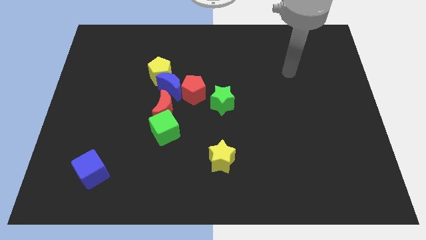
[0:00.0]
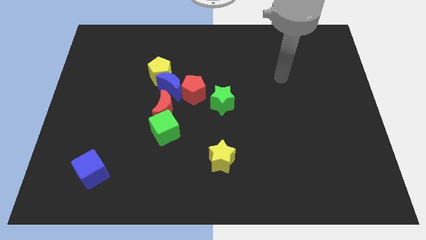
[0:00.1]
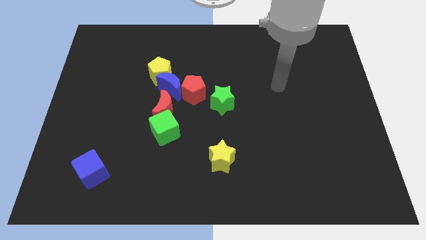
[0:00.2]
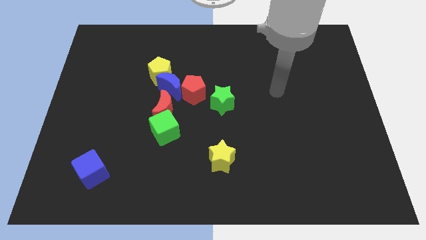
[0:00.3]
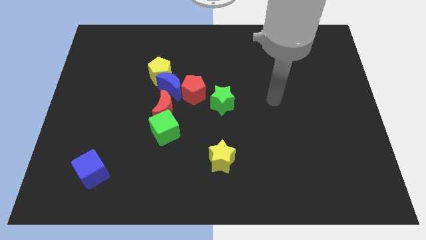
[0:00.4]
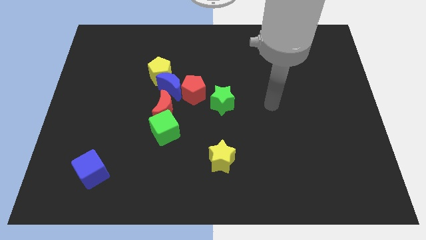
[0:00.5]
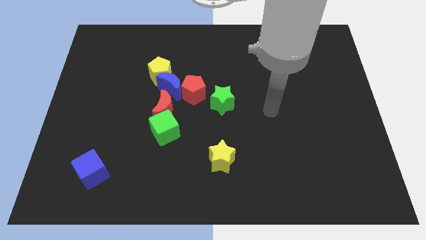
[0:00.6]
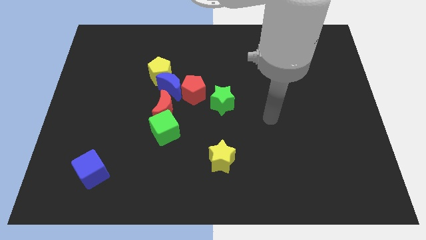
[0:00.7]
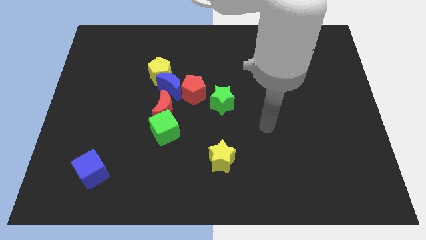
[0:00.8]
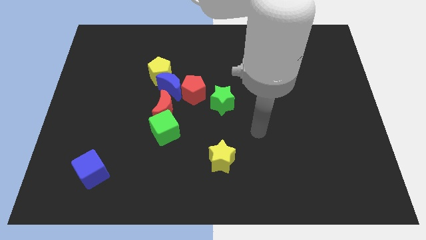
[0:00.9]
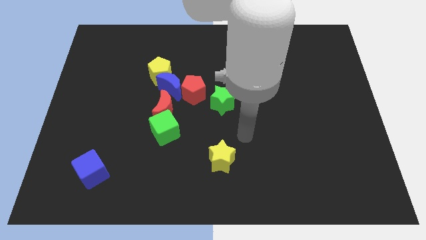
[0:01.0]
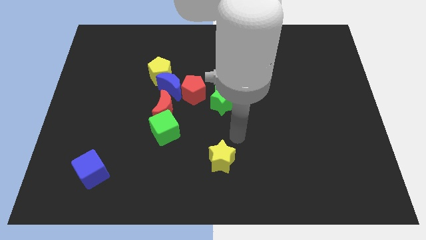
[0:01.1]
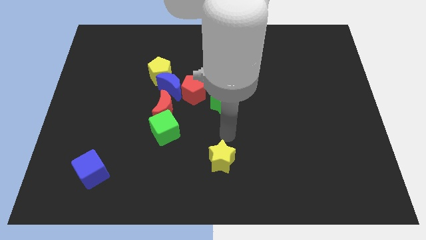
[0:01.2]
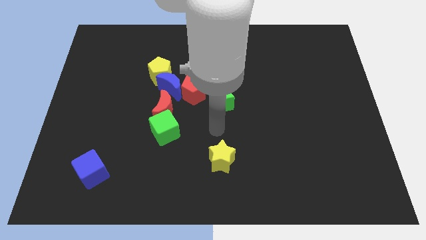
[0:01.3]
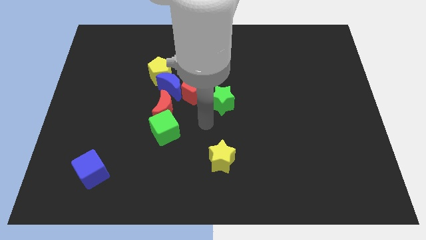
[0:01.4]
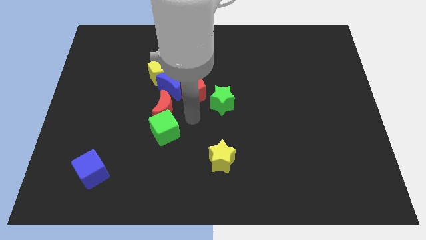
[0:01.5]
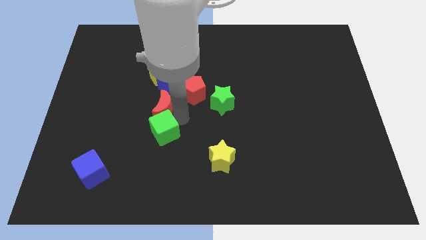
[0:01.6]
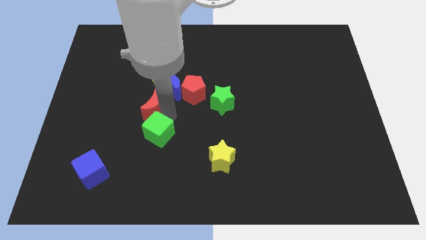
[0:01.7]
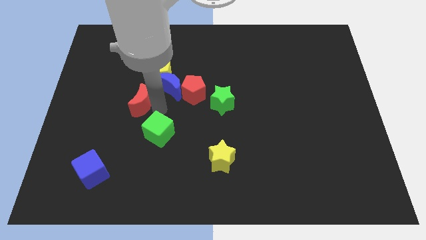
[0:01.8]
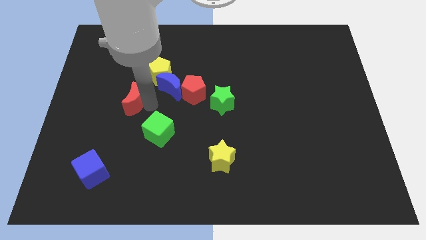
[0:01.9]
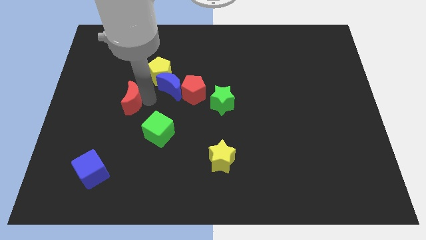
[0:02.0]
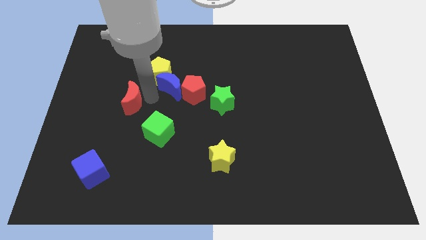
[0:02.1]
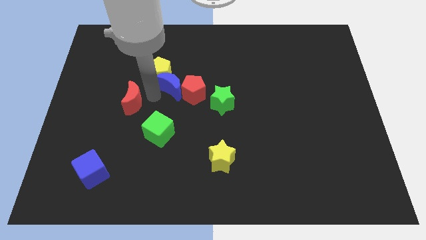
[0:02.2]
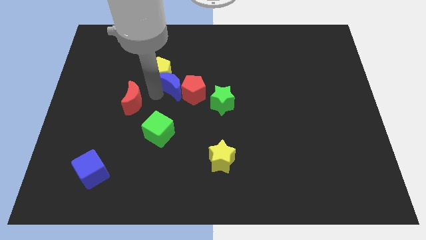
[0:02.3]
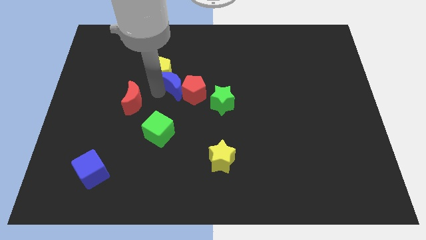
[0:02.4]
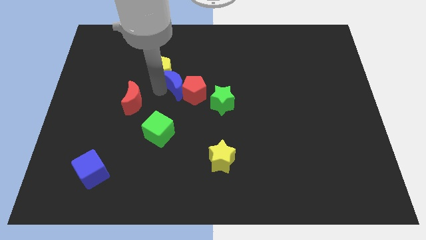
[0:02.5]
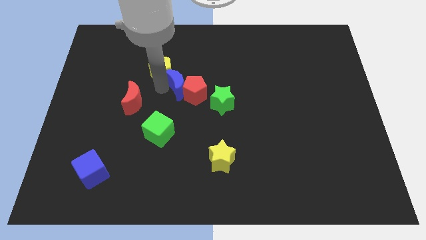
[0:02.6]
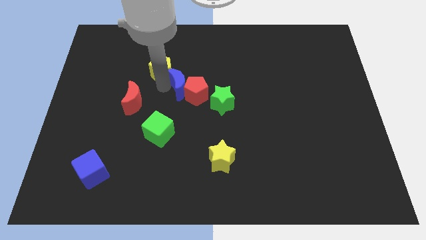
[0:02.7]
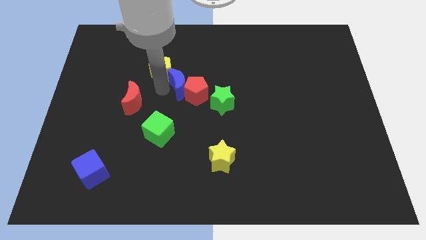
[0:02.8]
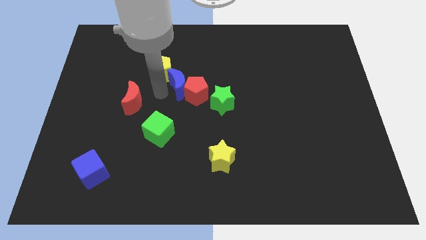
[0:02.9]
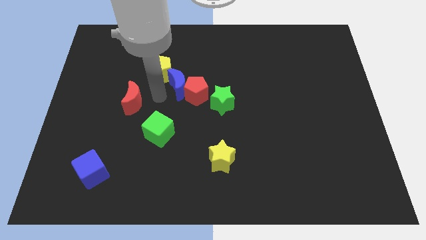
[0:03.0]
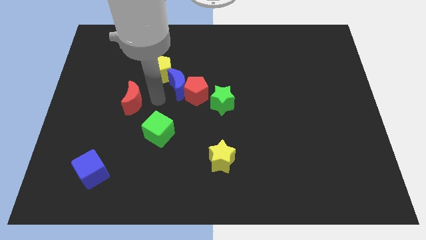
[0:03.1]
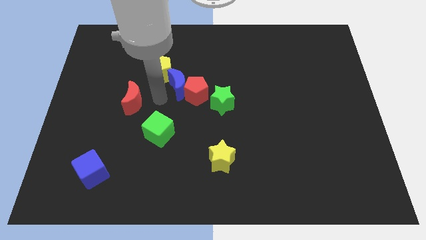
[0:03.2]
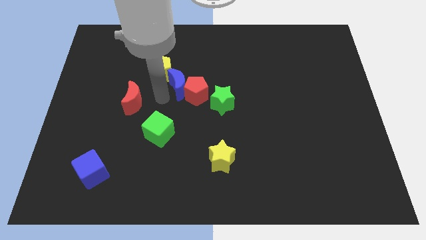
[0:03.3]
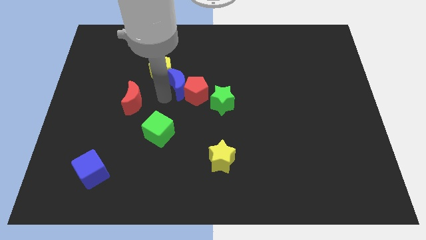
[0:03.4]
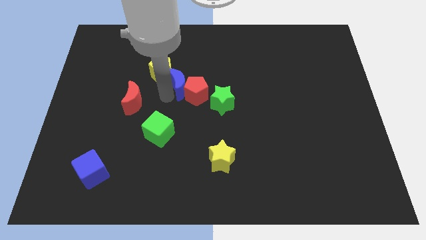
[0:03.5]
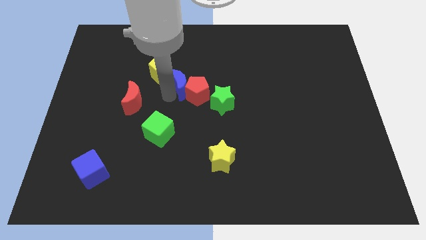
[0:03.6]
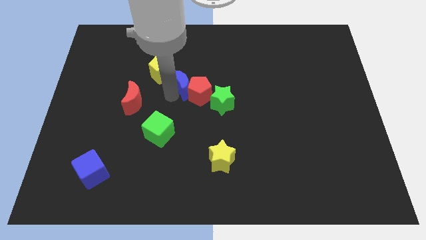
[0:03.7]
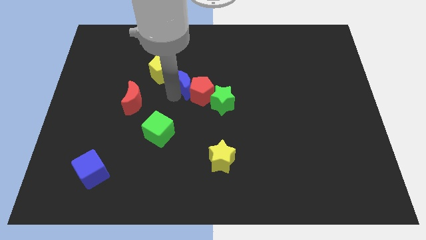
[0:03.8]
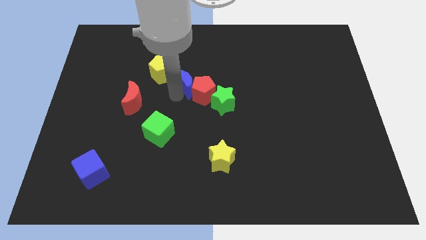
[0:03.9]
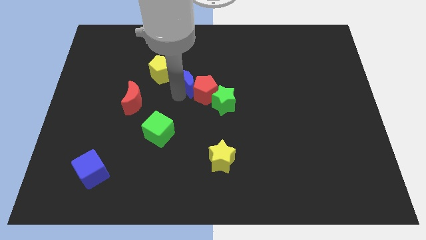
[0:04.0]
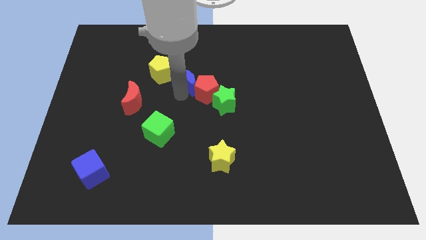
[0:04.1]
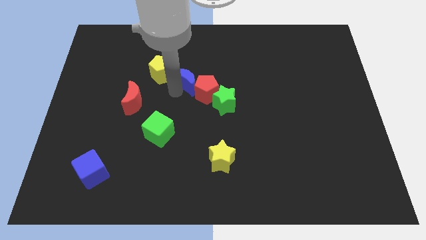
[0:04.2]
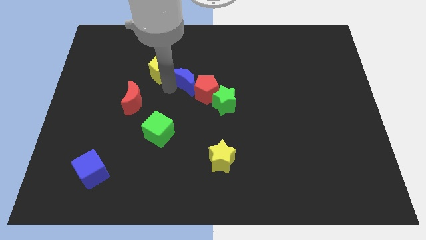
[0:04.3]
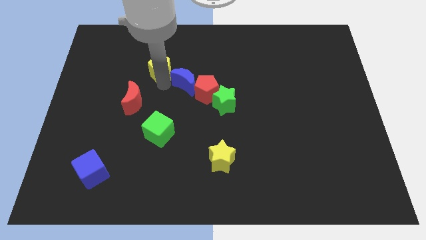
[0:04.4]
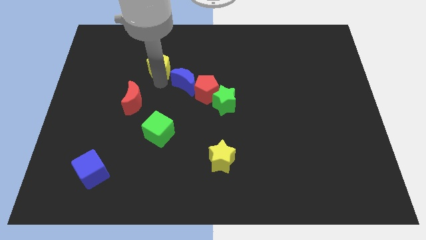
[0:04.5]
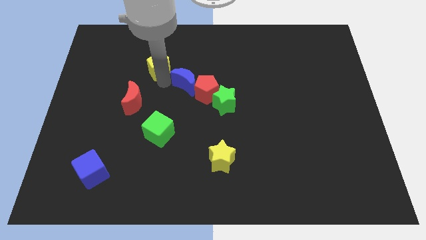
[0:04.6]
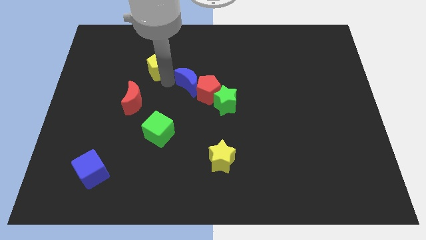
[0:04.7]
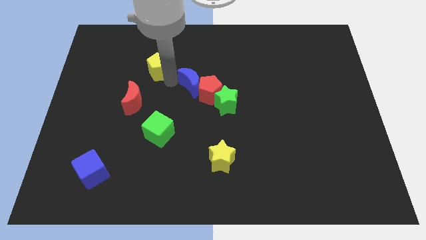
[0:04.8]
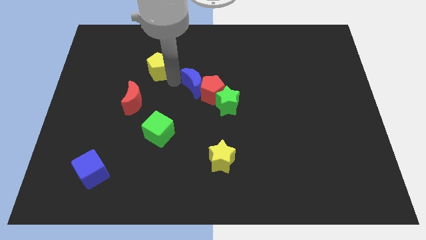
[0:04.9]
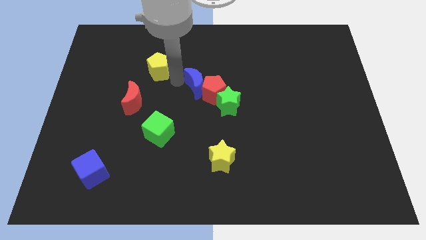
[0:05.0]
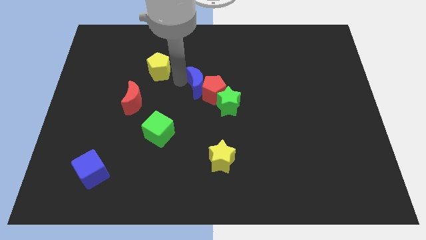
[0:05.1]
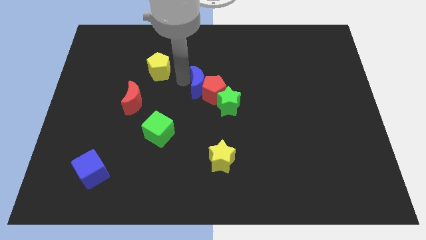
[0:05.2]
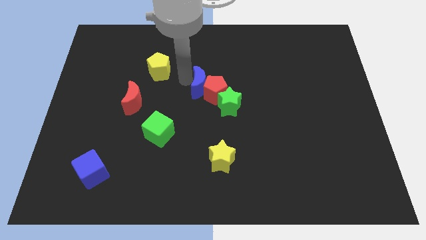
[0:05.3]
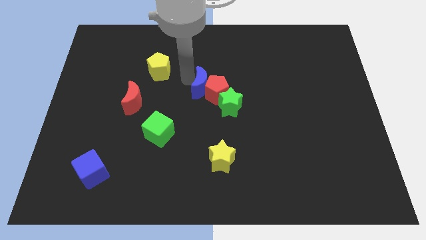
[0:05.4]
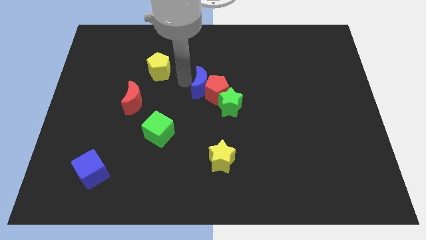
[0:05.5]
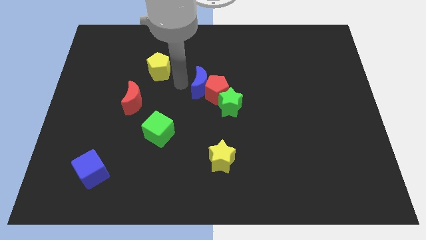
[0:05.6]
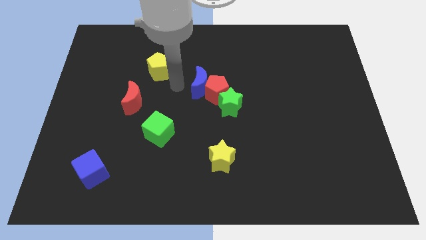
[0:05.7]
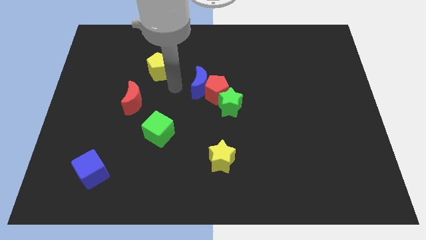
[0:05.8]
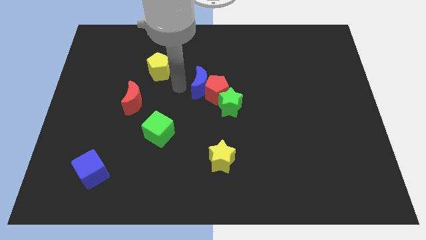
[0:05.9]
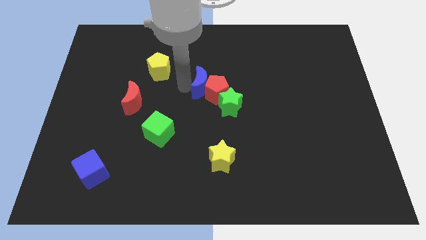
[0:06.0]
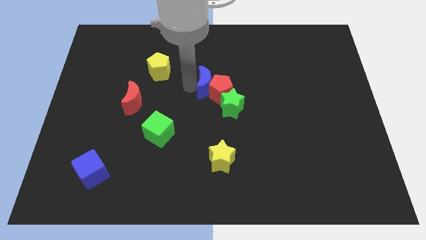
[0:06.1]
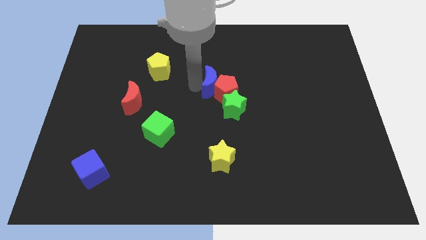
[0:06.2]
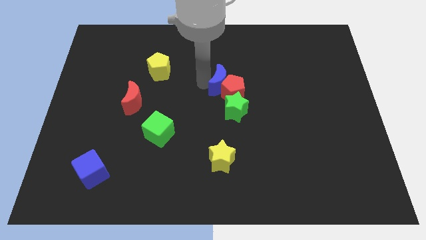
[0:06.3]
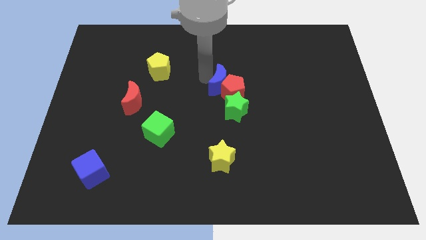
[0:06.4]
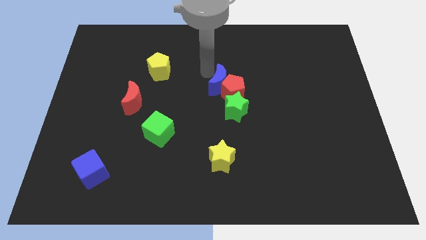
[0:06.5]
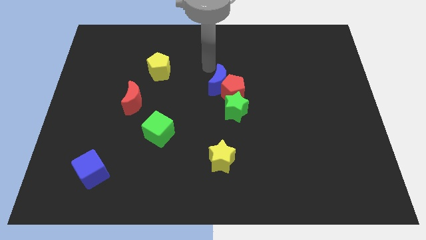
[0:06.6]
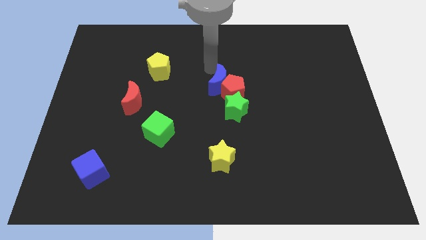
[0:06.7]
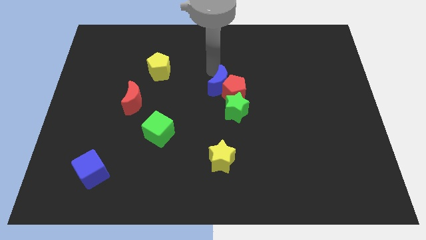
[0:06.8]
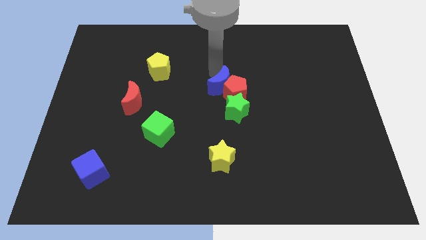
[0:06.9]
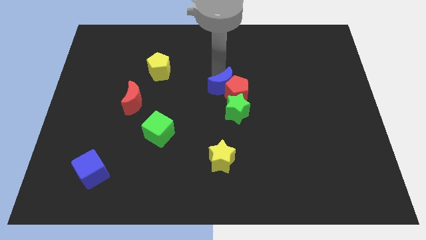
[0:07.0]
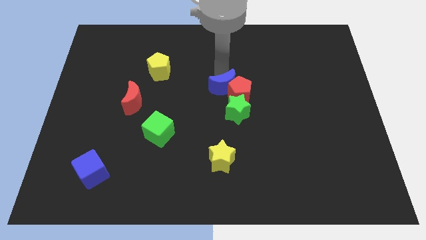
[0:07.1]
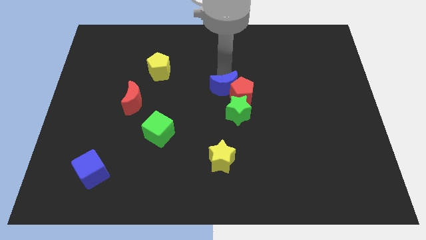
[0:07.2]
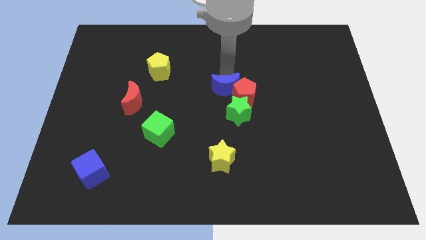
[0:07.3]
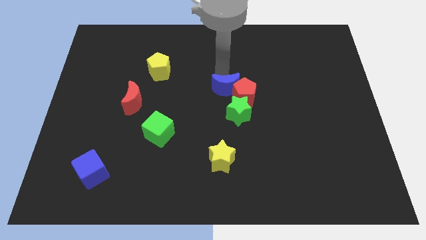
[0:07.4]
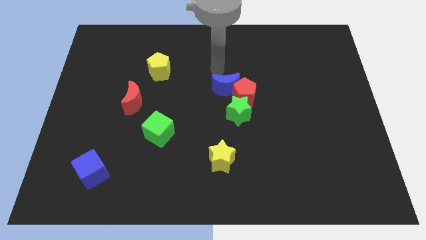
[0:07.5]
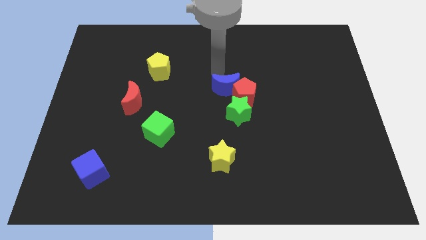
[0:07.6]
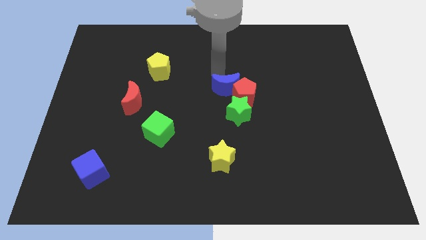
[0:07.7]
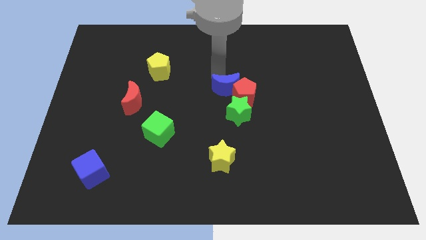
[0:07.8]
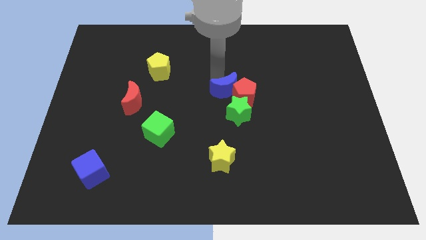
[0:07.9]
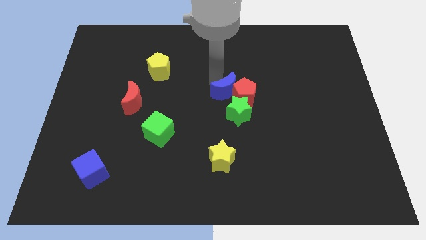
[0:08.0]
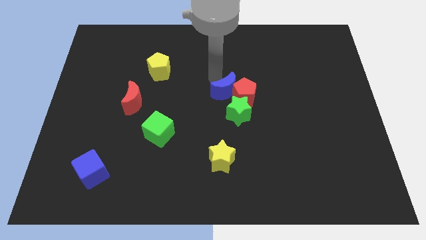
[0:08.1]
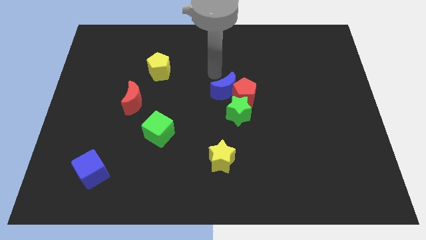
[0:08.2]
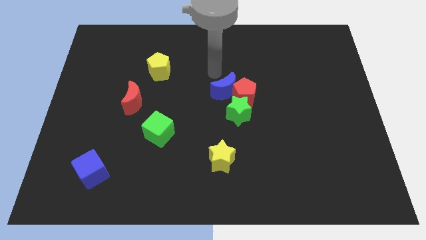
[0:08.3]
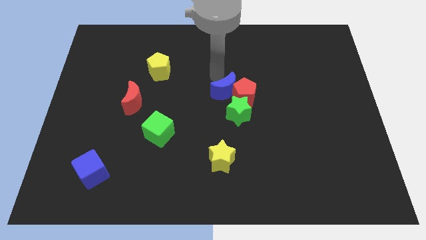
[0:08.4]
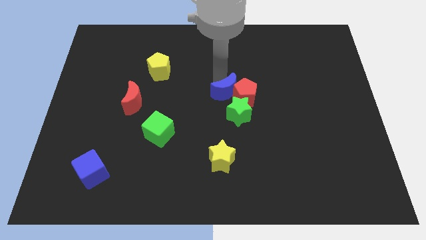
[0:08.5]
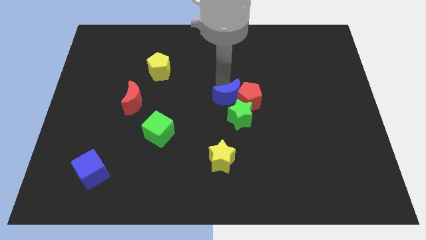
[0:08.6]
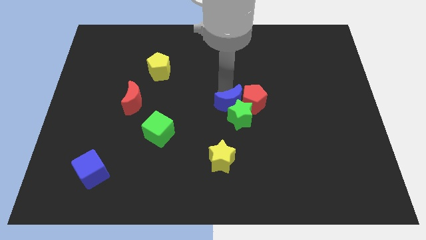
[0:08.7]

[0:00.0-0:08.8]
slide the blue moon to the green star
